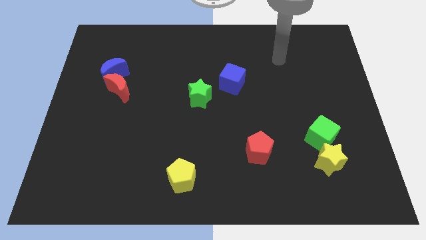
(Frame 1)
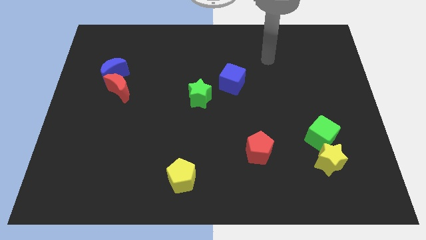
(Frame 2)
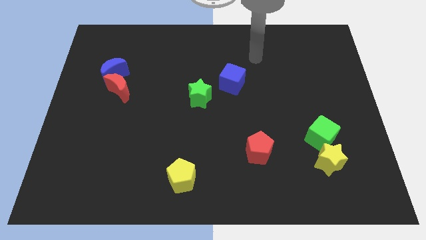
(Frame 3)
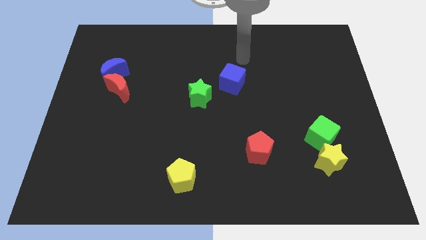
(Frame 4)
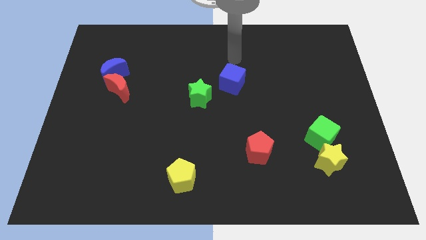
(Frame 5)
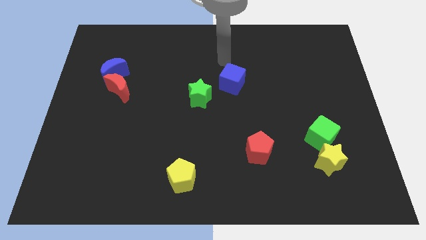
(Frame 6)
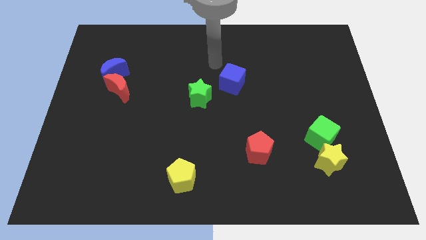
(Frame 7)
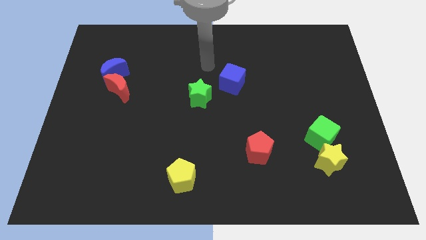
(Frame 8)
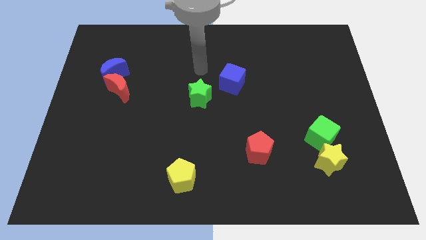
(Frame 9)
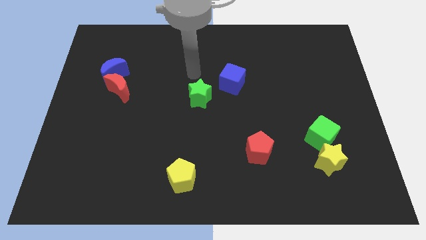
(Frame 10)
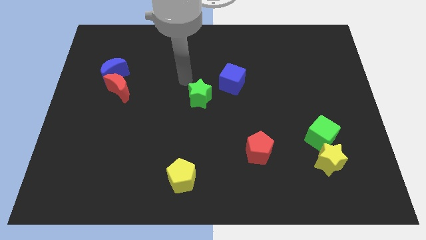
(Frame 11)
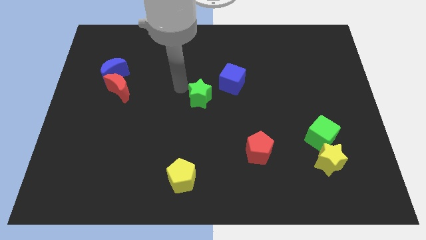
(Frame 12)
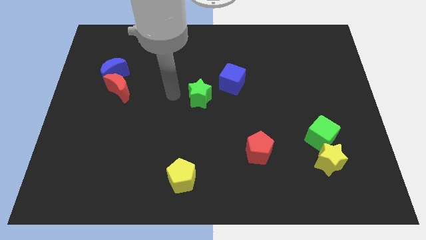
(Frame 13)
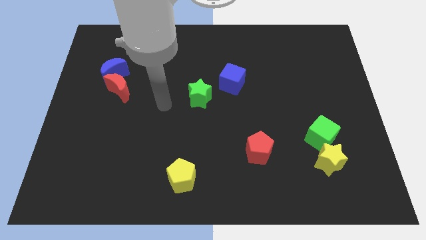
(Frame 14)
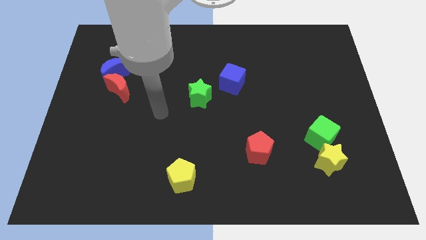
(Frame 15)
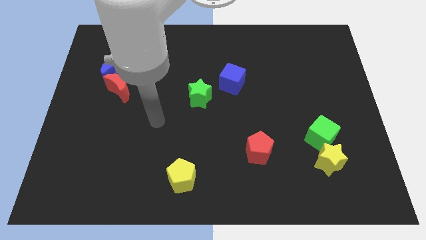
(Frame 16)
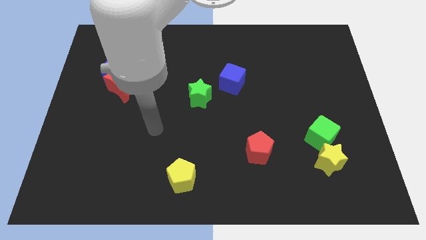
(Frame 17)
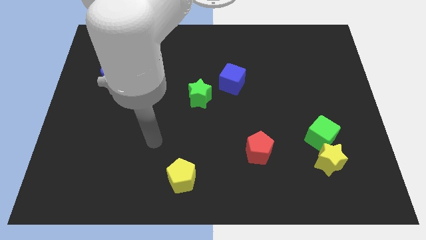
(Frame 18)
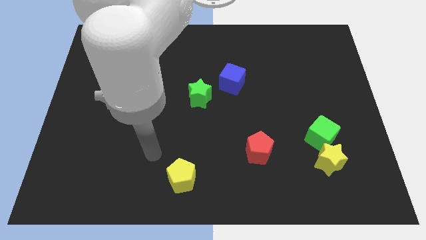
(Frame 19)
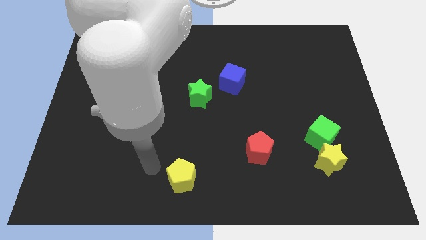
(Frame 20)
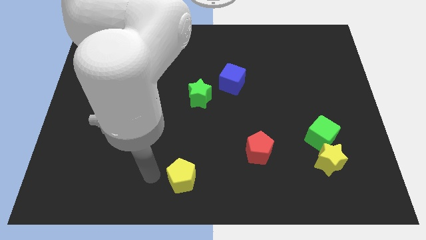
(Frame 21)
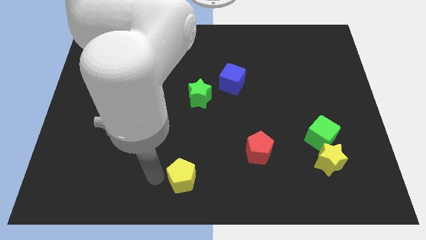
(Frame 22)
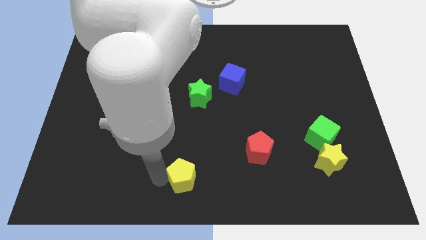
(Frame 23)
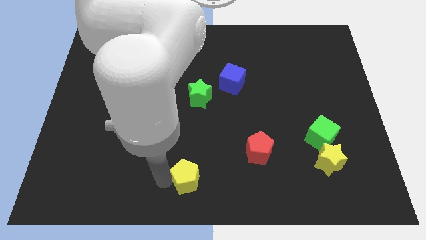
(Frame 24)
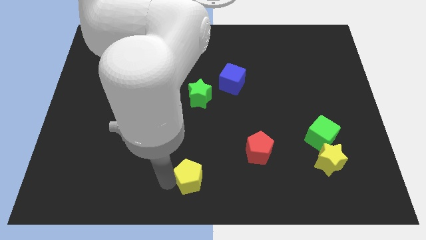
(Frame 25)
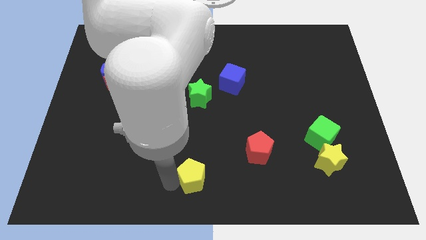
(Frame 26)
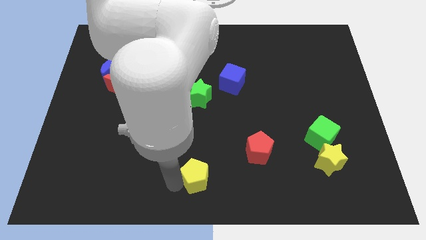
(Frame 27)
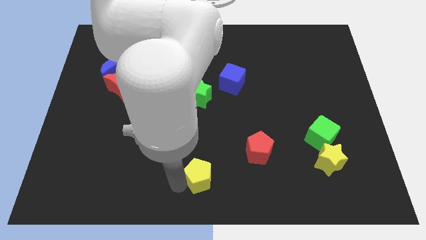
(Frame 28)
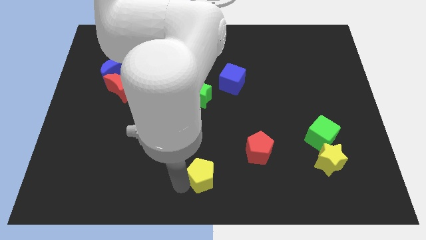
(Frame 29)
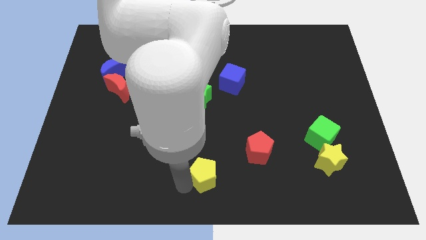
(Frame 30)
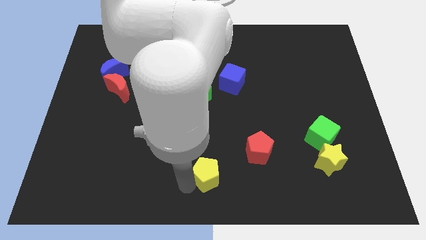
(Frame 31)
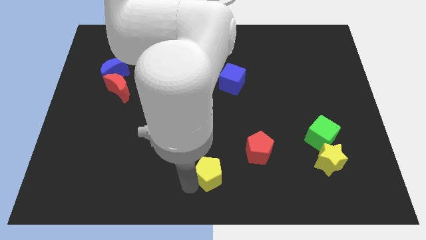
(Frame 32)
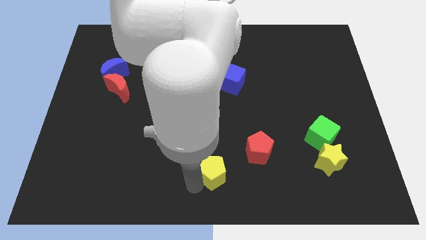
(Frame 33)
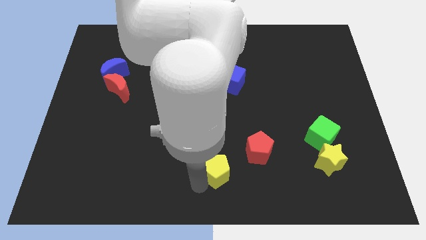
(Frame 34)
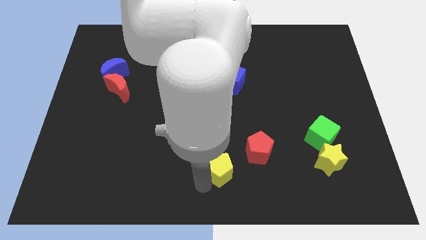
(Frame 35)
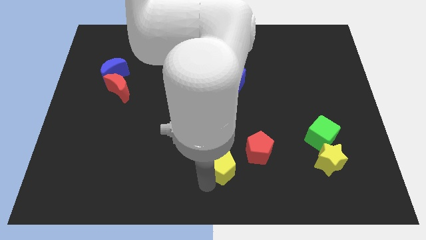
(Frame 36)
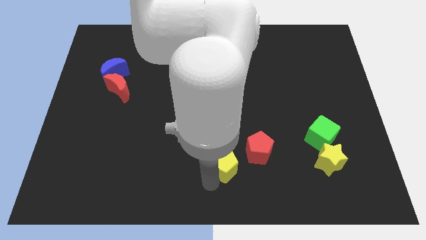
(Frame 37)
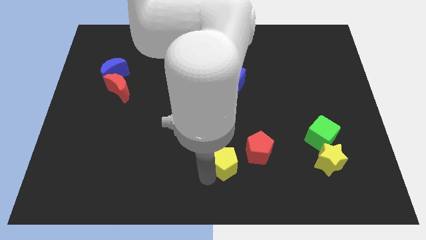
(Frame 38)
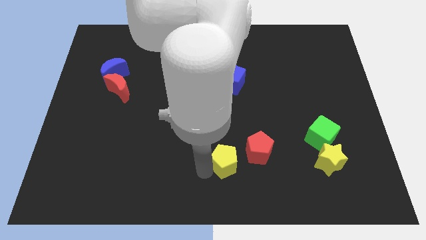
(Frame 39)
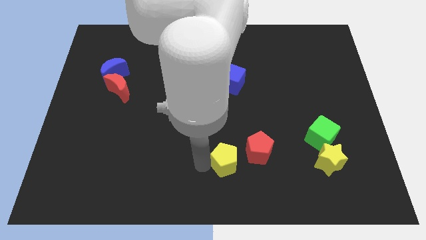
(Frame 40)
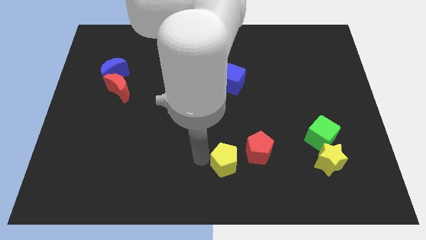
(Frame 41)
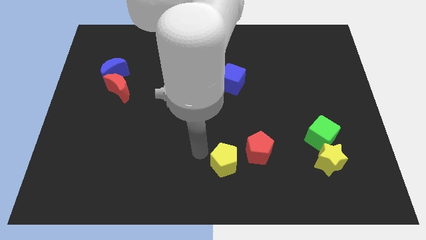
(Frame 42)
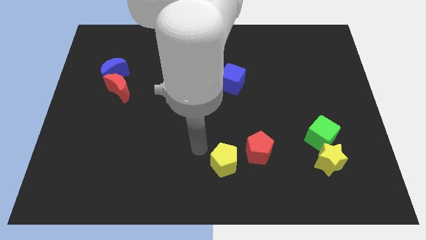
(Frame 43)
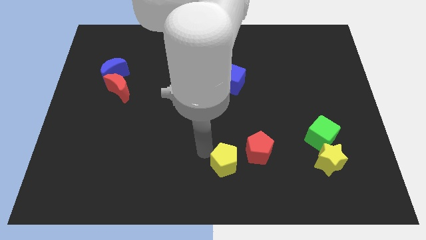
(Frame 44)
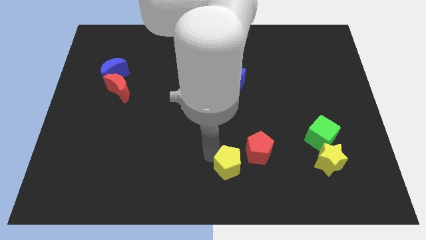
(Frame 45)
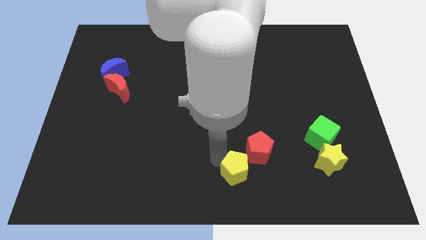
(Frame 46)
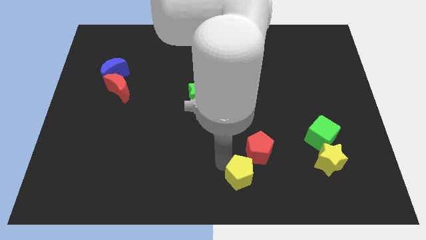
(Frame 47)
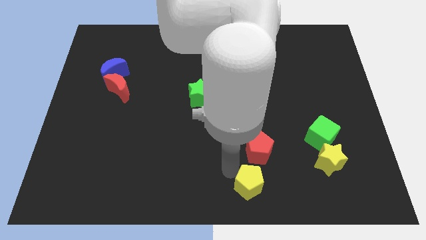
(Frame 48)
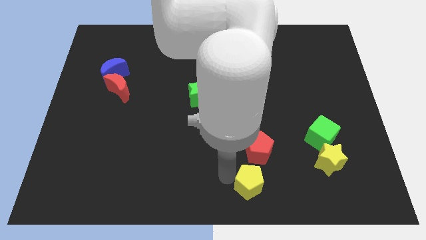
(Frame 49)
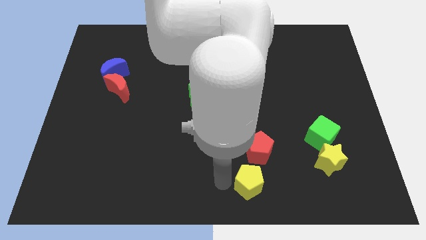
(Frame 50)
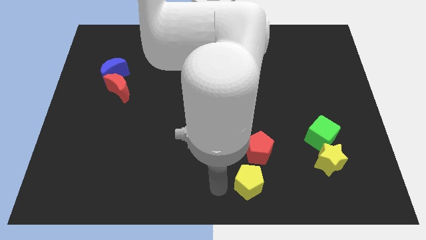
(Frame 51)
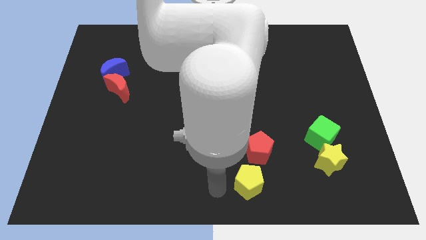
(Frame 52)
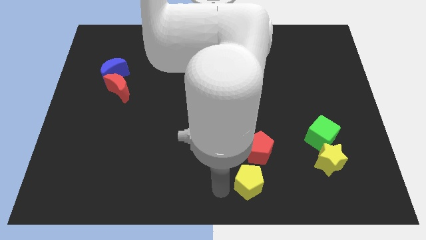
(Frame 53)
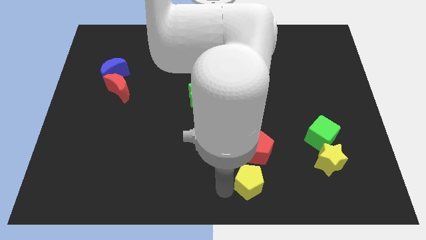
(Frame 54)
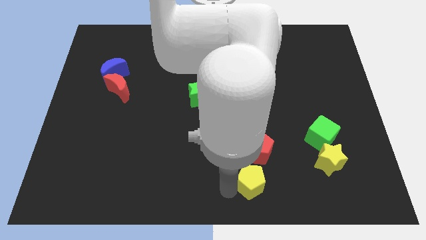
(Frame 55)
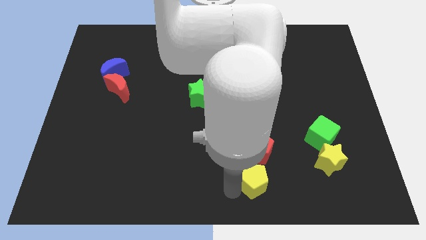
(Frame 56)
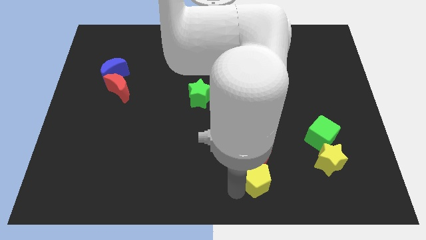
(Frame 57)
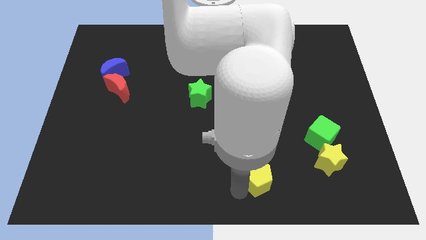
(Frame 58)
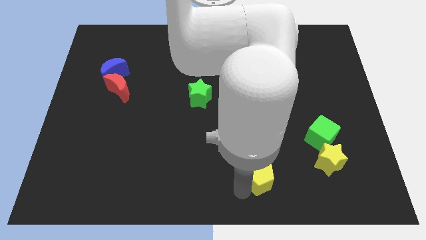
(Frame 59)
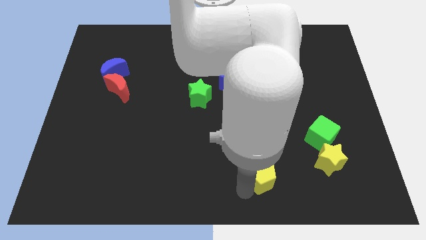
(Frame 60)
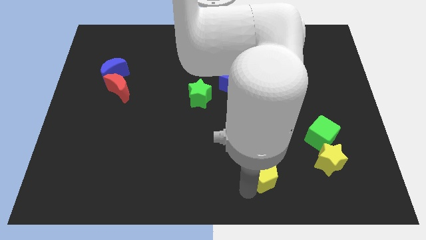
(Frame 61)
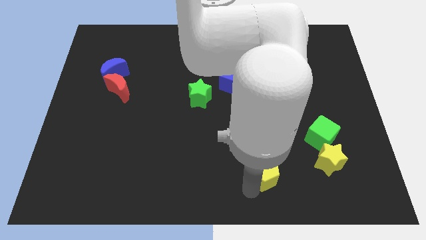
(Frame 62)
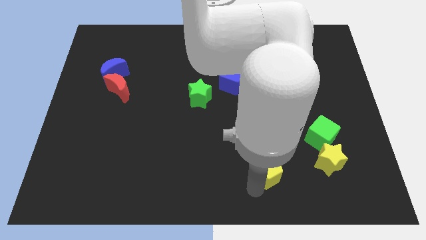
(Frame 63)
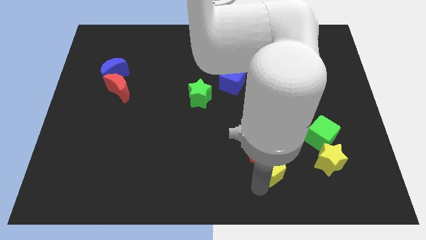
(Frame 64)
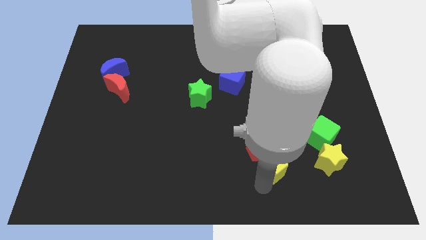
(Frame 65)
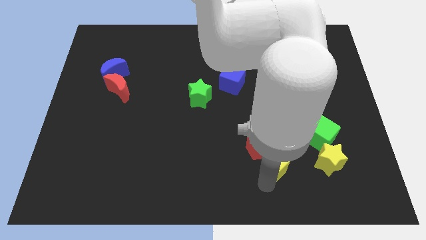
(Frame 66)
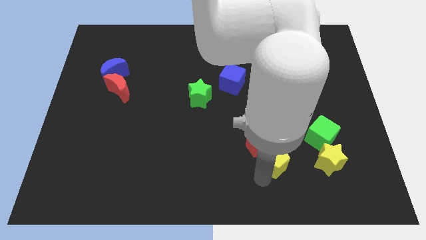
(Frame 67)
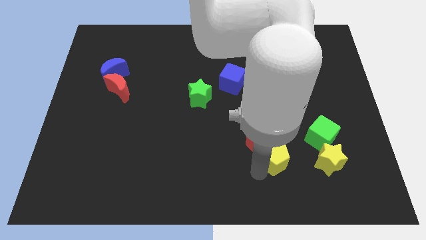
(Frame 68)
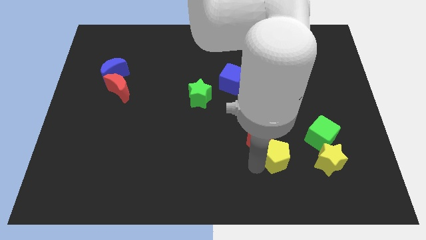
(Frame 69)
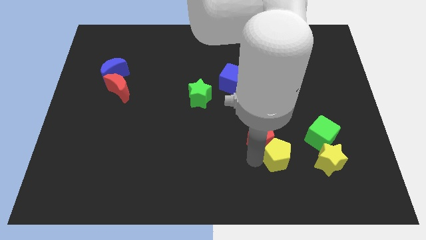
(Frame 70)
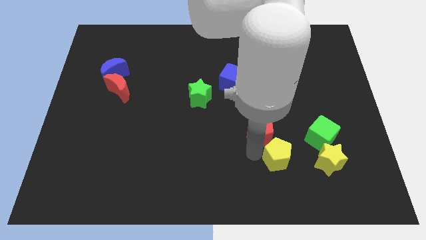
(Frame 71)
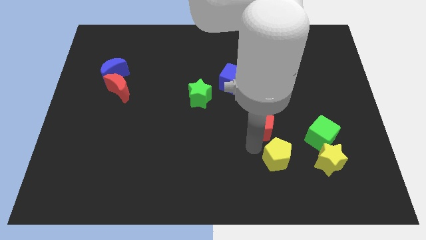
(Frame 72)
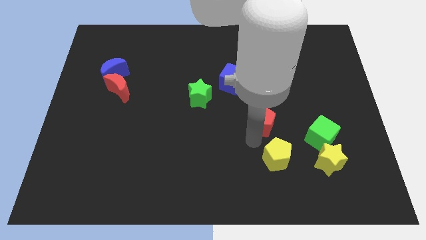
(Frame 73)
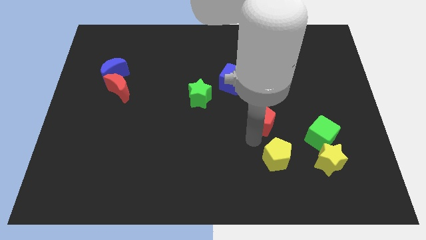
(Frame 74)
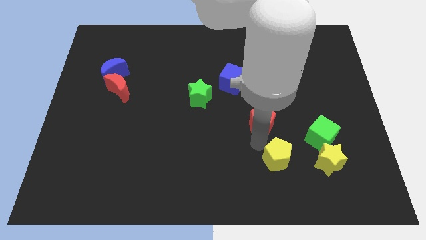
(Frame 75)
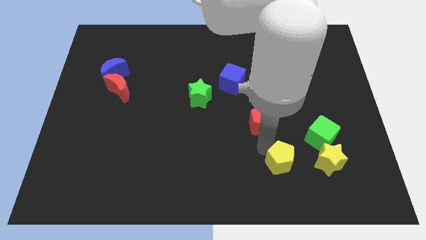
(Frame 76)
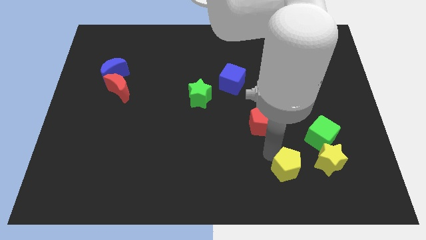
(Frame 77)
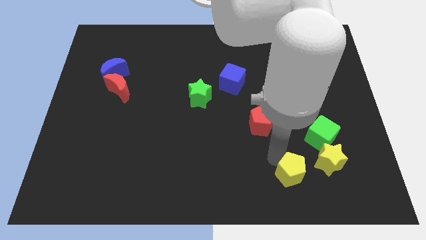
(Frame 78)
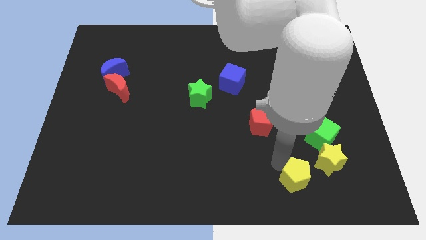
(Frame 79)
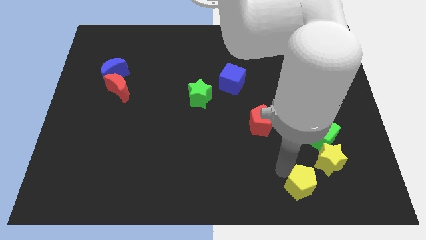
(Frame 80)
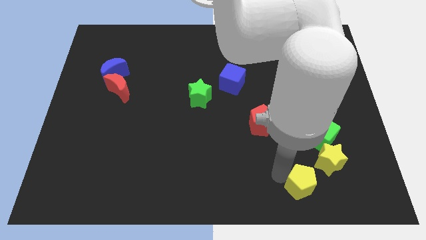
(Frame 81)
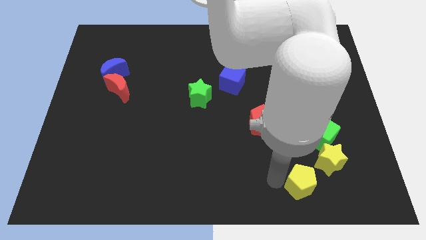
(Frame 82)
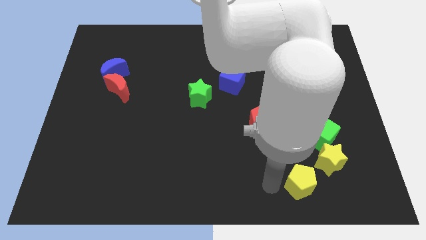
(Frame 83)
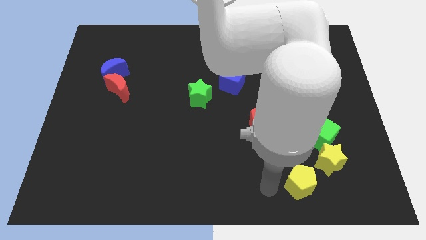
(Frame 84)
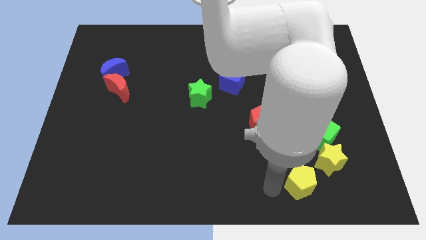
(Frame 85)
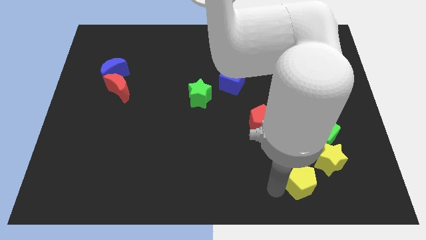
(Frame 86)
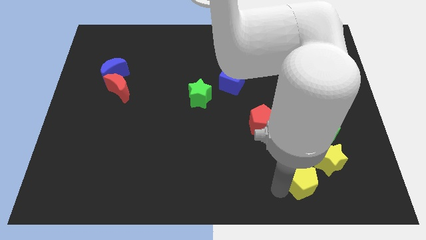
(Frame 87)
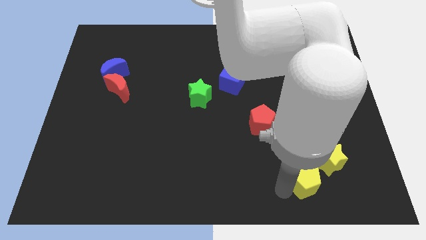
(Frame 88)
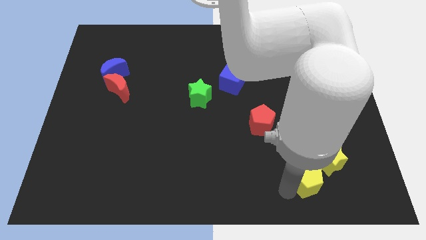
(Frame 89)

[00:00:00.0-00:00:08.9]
put the yellow pentagon below the green cube
